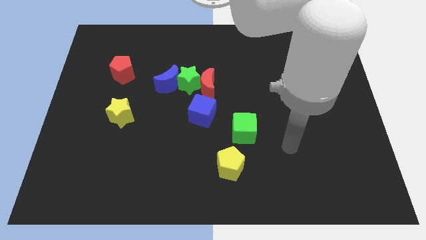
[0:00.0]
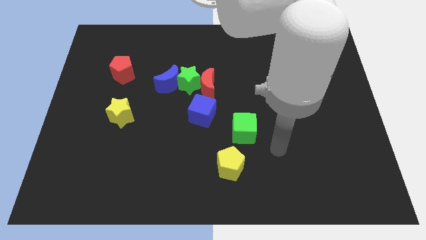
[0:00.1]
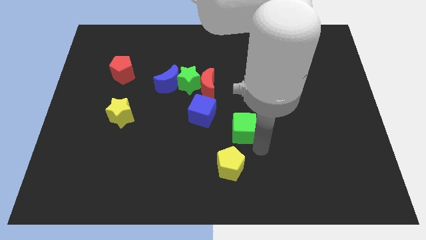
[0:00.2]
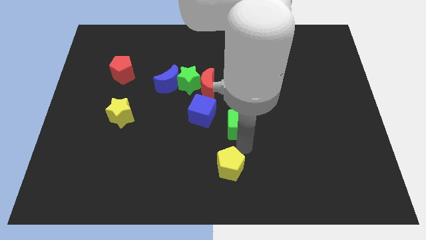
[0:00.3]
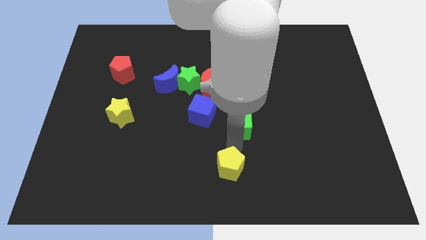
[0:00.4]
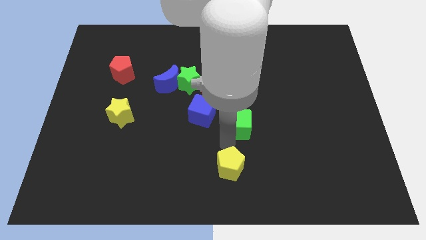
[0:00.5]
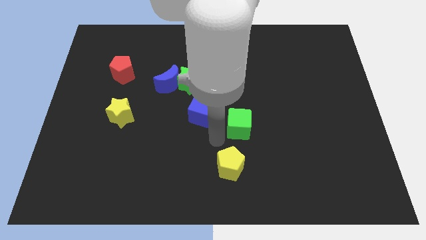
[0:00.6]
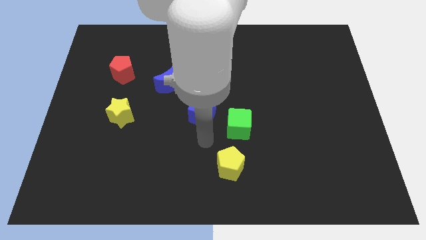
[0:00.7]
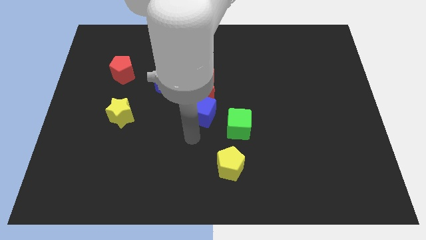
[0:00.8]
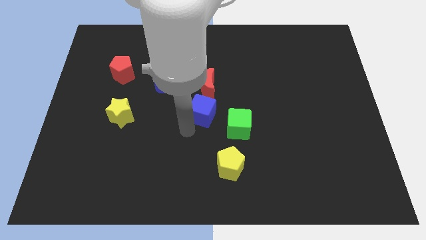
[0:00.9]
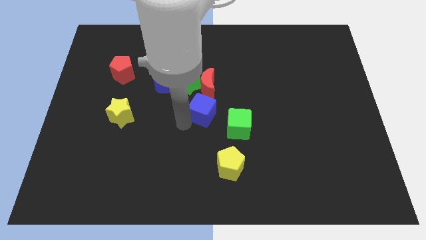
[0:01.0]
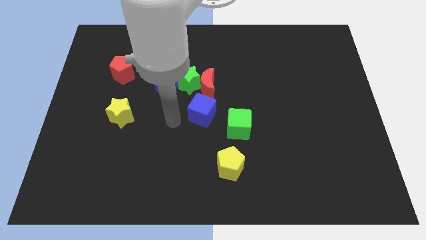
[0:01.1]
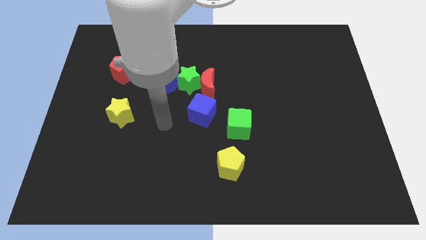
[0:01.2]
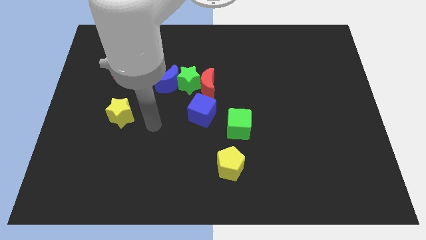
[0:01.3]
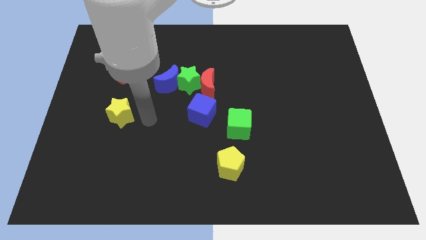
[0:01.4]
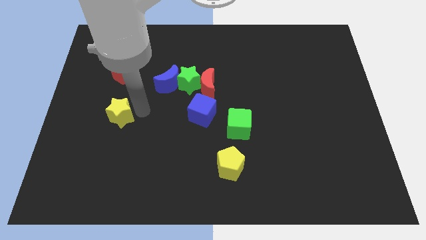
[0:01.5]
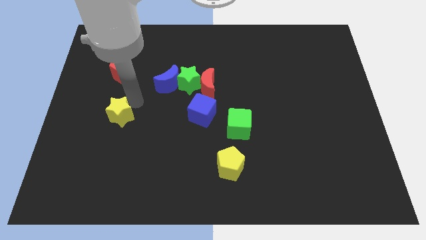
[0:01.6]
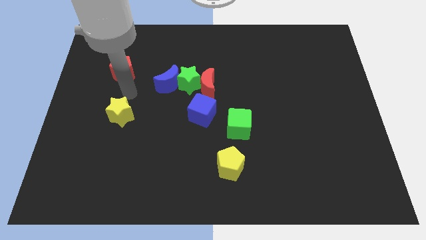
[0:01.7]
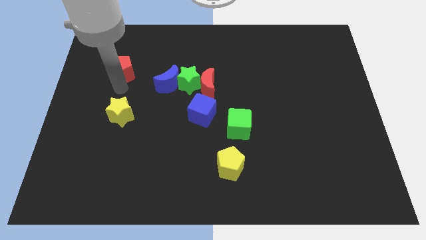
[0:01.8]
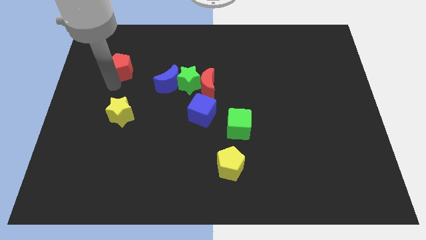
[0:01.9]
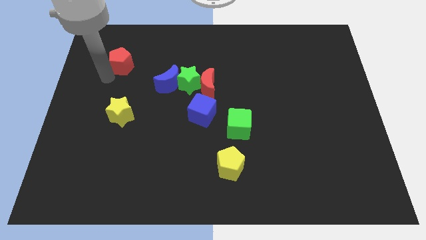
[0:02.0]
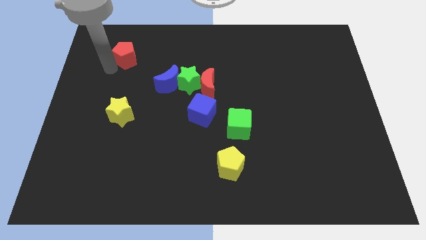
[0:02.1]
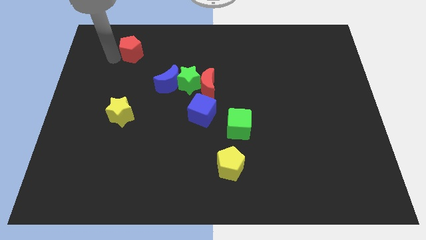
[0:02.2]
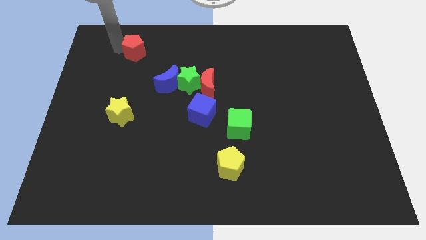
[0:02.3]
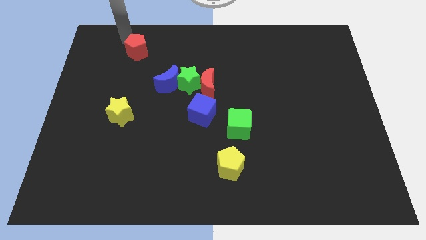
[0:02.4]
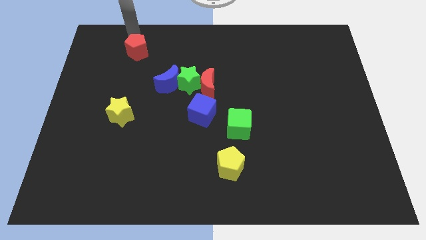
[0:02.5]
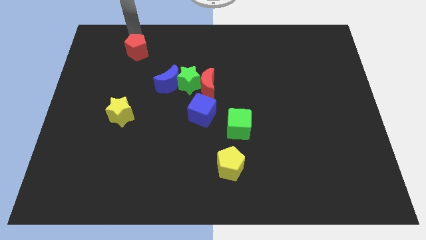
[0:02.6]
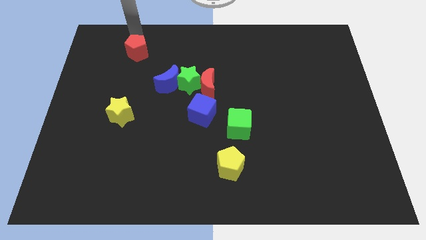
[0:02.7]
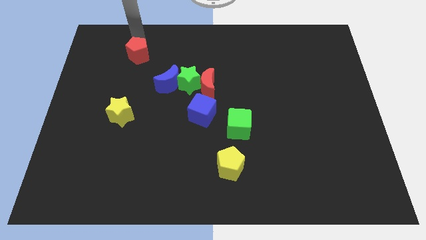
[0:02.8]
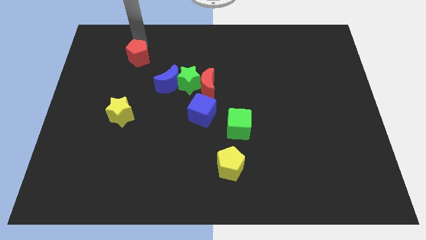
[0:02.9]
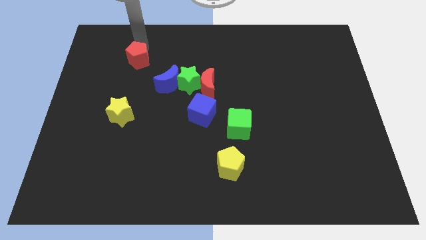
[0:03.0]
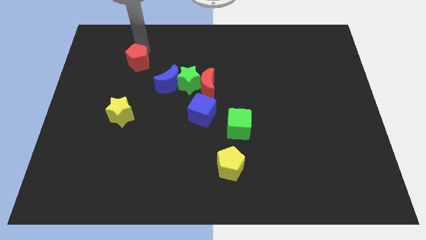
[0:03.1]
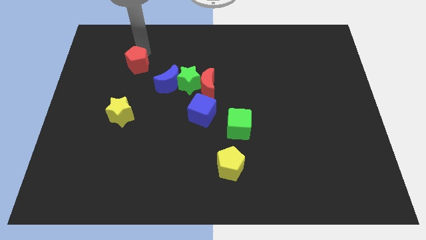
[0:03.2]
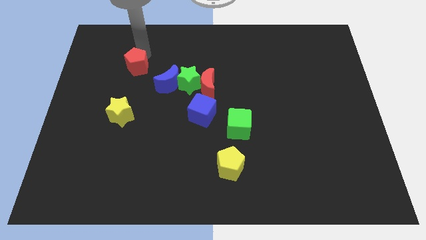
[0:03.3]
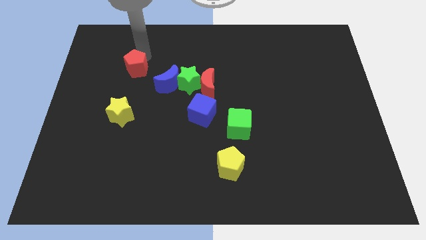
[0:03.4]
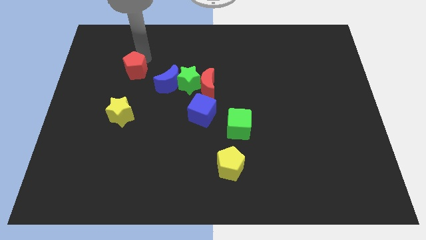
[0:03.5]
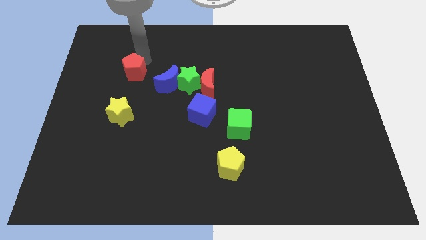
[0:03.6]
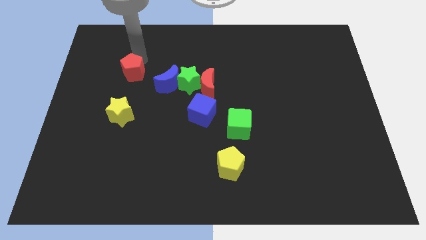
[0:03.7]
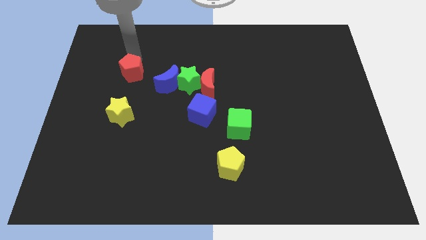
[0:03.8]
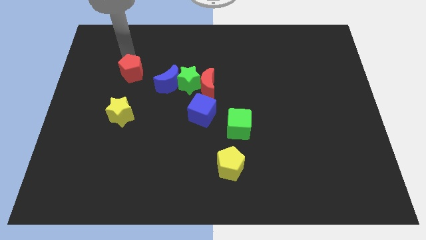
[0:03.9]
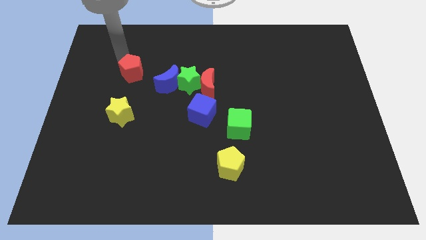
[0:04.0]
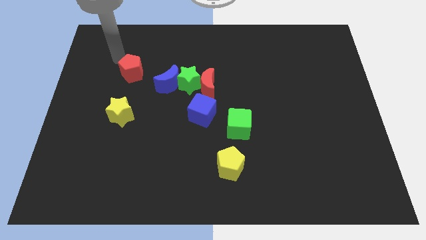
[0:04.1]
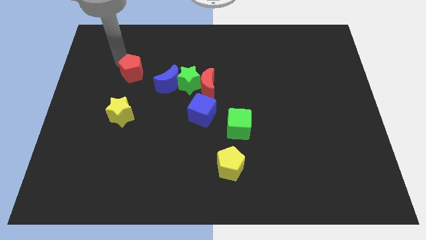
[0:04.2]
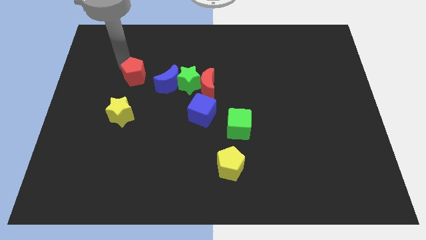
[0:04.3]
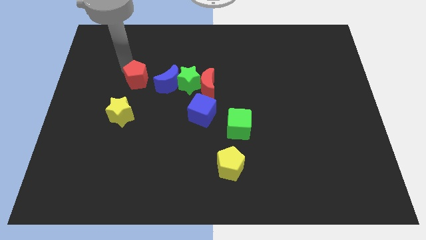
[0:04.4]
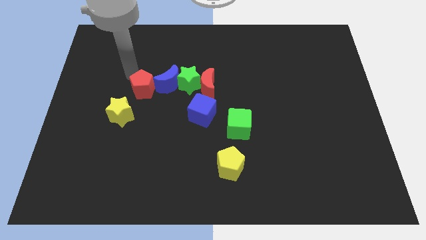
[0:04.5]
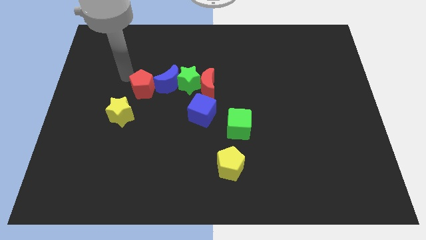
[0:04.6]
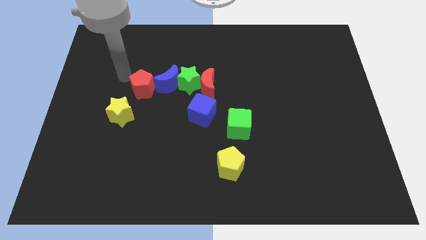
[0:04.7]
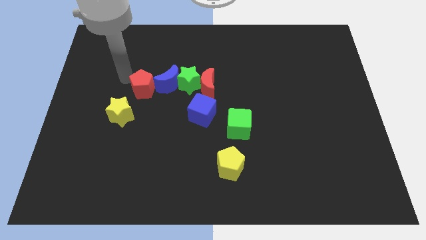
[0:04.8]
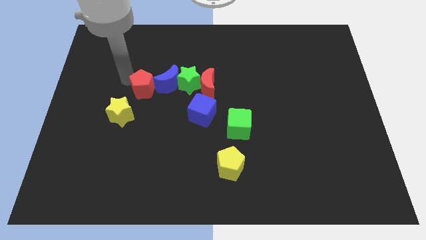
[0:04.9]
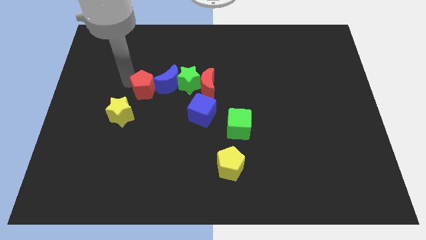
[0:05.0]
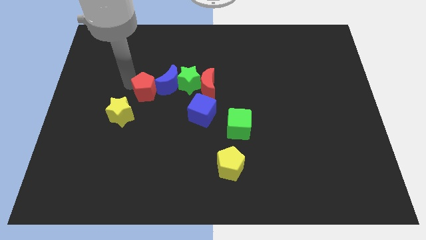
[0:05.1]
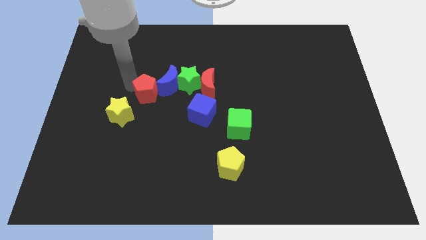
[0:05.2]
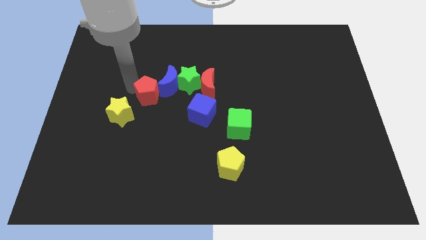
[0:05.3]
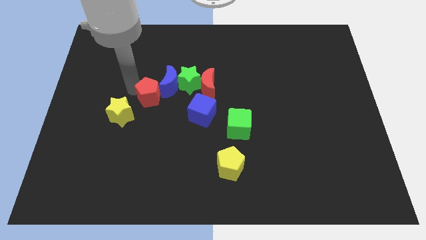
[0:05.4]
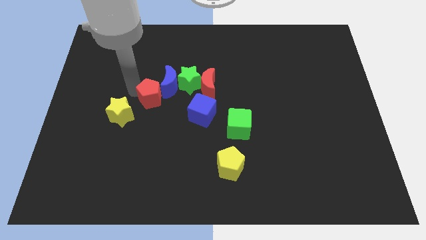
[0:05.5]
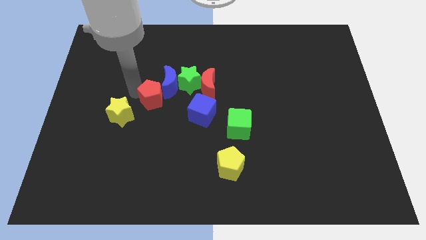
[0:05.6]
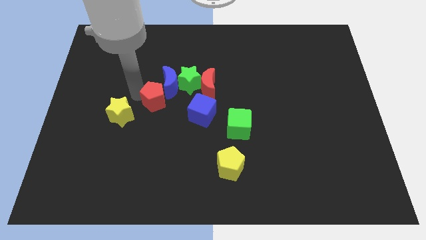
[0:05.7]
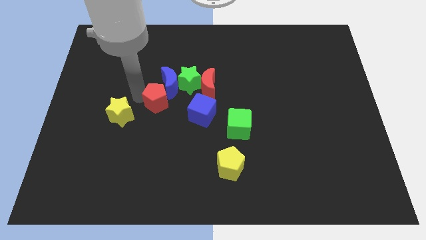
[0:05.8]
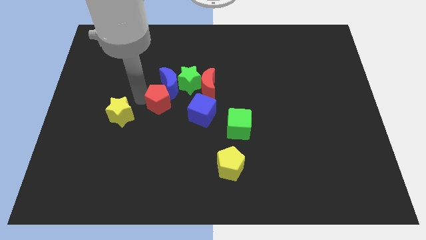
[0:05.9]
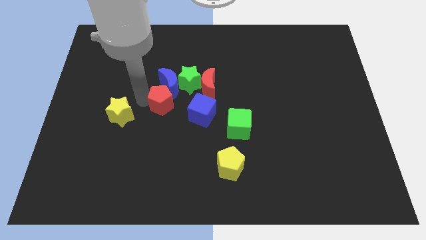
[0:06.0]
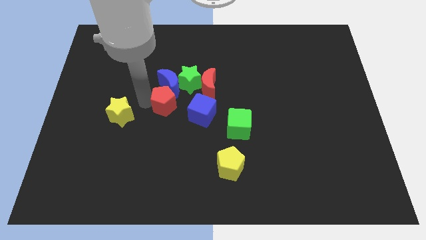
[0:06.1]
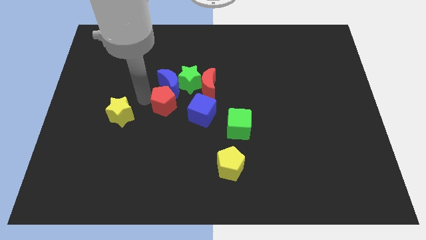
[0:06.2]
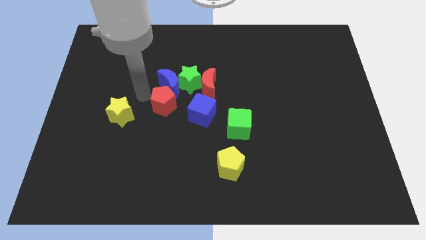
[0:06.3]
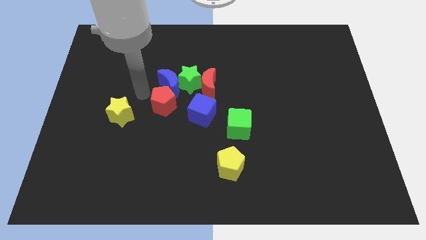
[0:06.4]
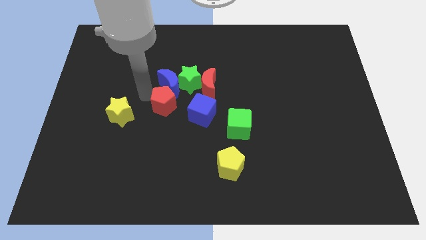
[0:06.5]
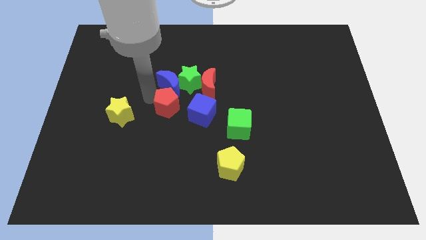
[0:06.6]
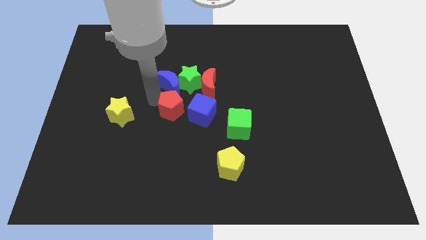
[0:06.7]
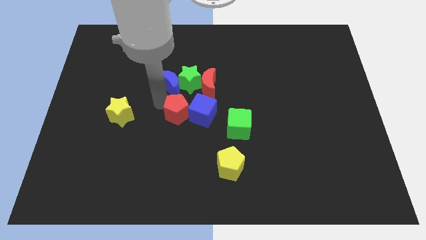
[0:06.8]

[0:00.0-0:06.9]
slide the red pentagon to the left side of the green cube
